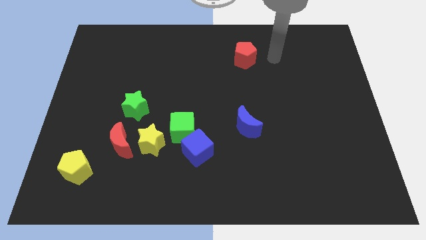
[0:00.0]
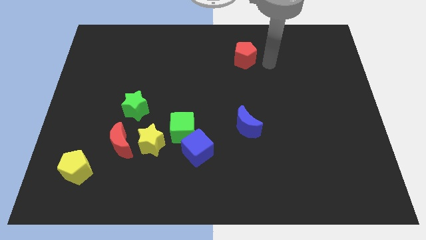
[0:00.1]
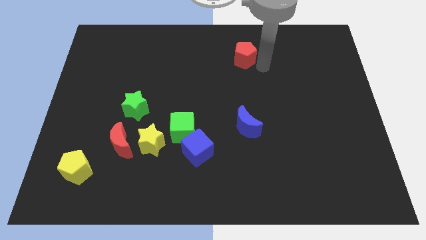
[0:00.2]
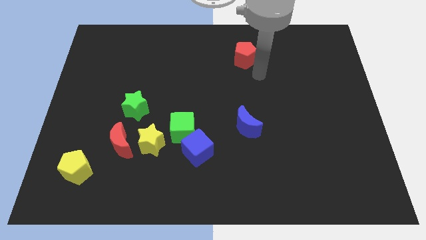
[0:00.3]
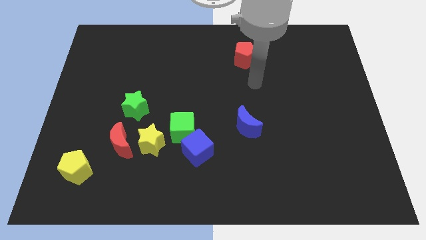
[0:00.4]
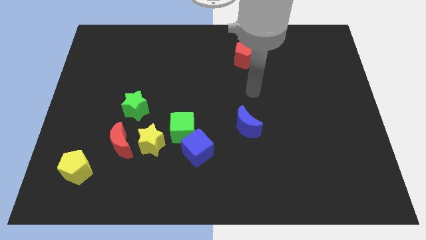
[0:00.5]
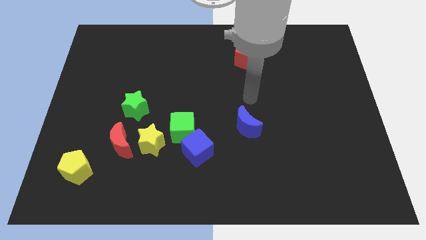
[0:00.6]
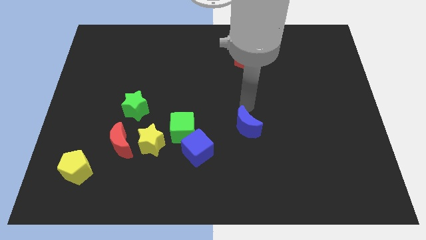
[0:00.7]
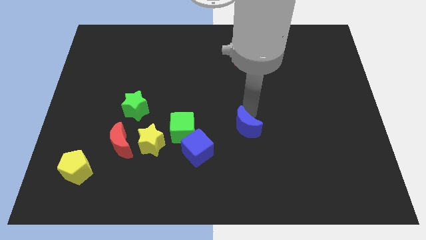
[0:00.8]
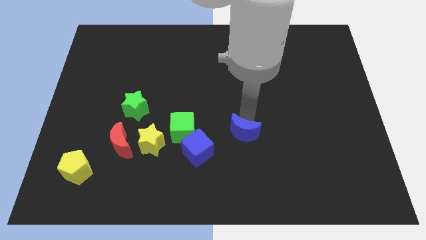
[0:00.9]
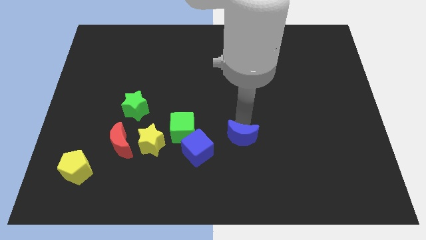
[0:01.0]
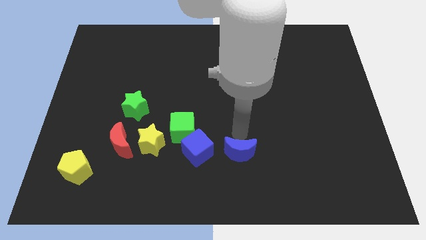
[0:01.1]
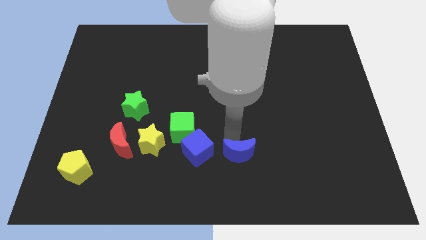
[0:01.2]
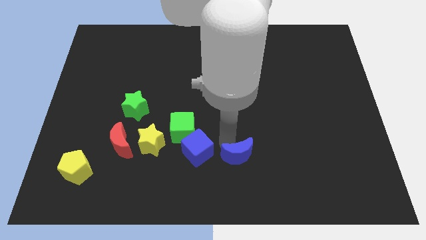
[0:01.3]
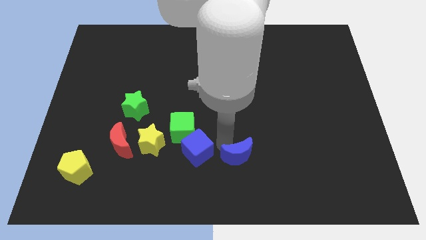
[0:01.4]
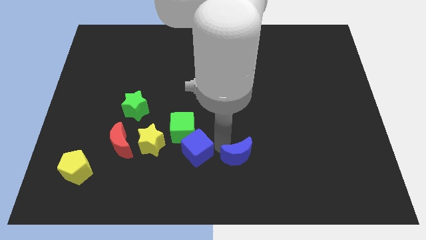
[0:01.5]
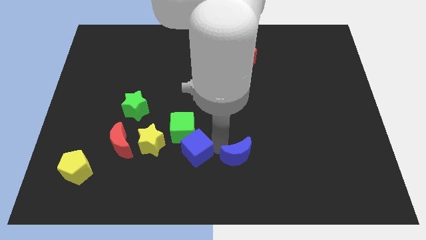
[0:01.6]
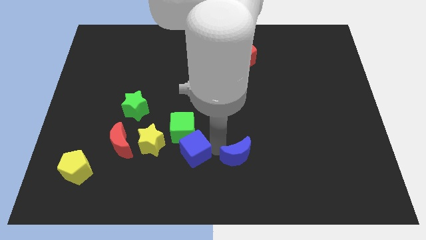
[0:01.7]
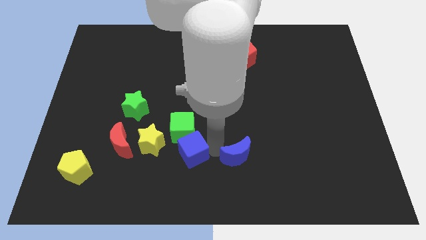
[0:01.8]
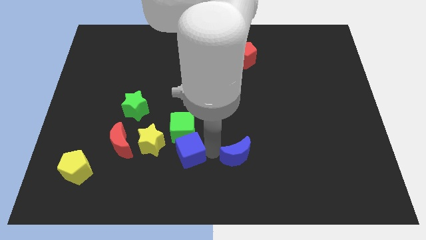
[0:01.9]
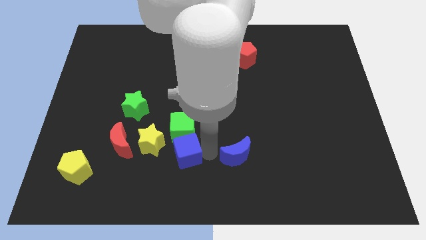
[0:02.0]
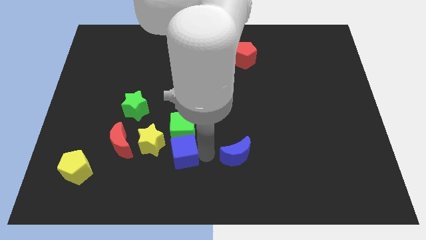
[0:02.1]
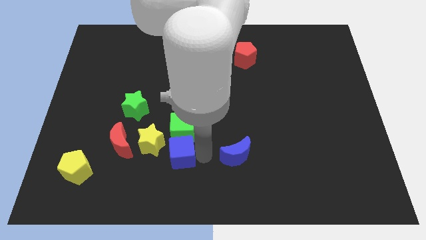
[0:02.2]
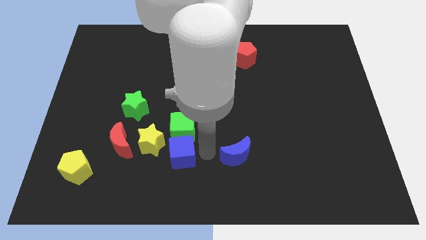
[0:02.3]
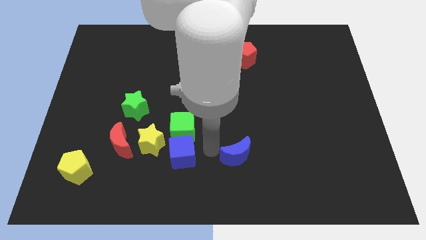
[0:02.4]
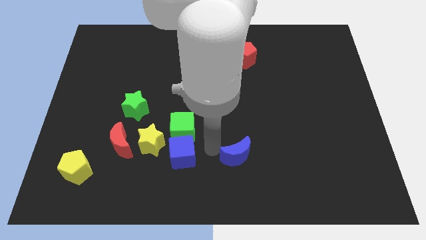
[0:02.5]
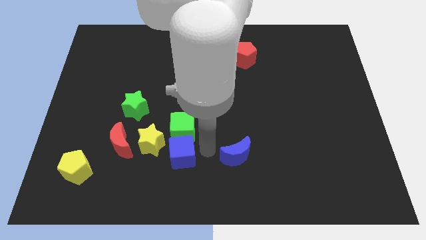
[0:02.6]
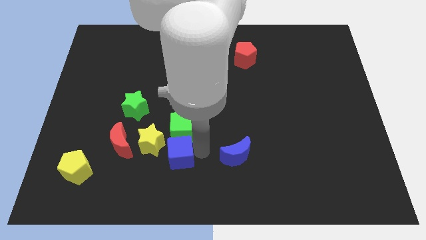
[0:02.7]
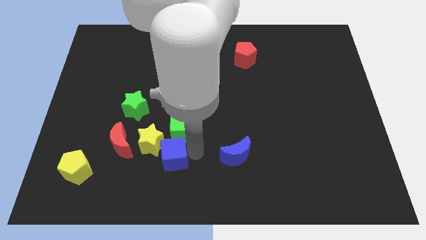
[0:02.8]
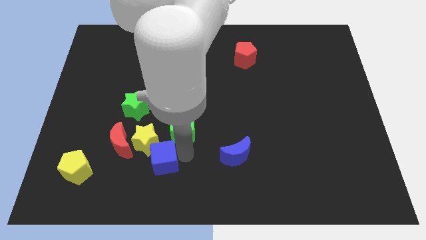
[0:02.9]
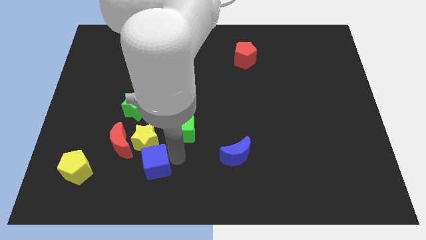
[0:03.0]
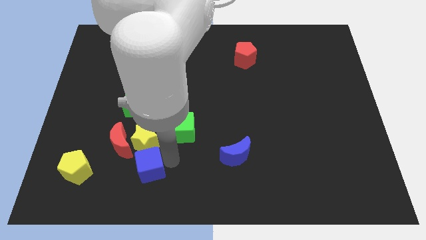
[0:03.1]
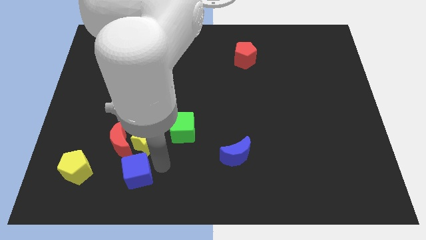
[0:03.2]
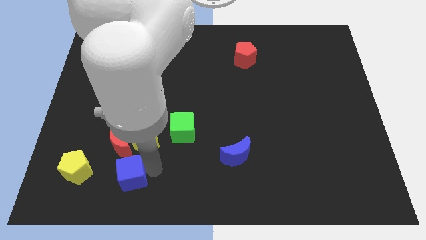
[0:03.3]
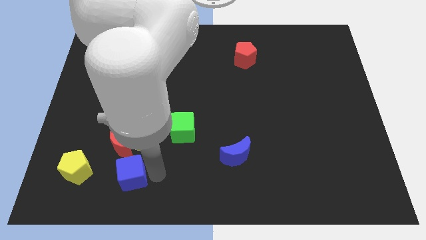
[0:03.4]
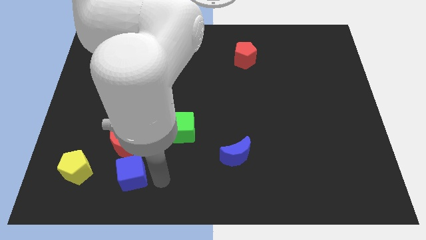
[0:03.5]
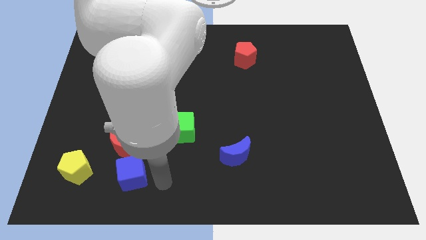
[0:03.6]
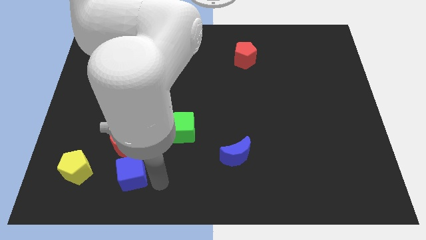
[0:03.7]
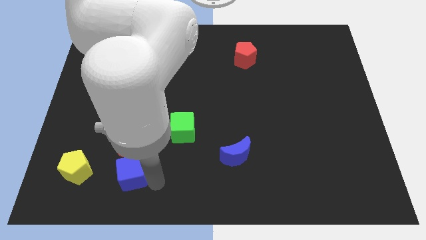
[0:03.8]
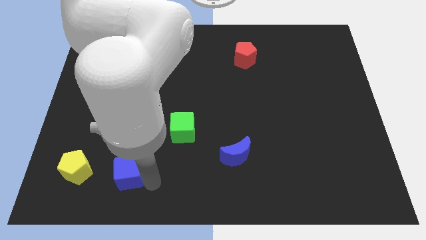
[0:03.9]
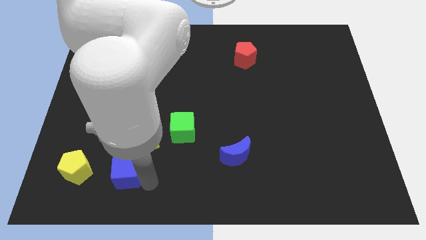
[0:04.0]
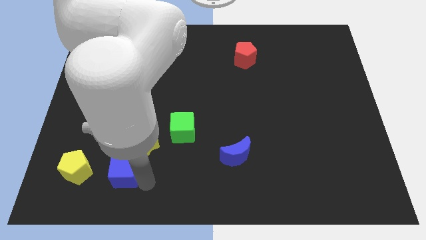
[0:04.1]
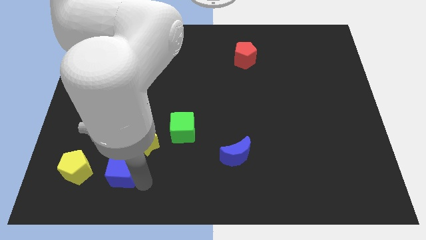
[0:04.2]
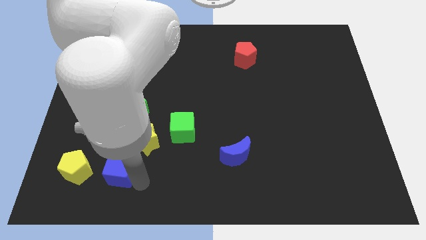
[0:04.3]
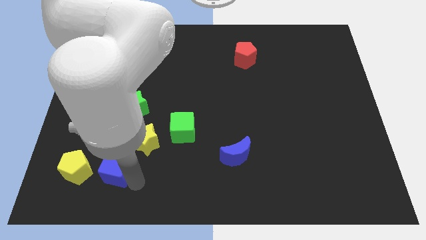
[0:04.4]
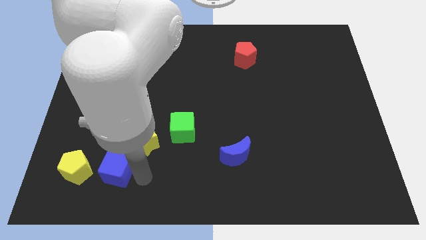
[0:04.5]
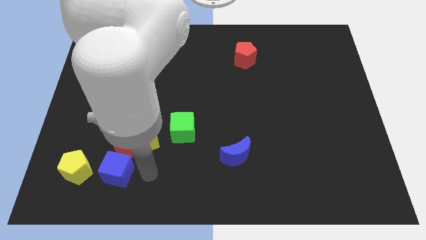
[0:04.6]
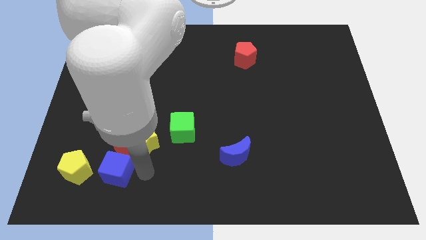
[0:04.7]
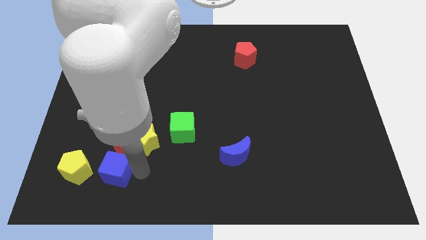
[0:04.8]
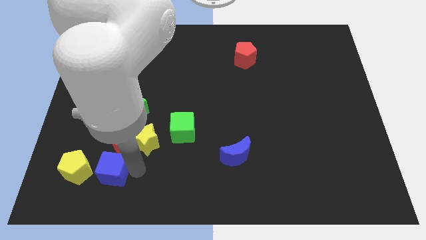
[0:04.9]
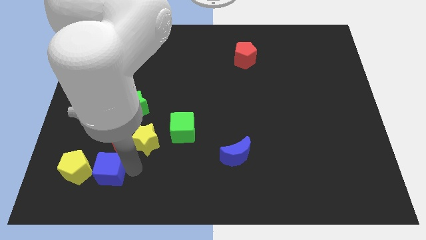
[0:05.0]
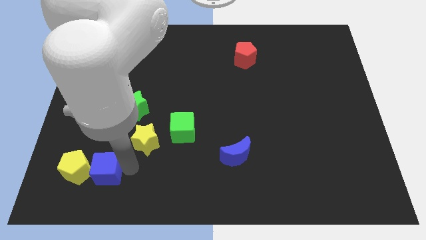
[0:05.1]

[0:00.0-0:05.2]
move the blue cube close to the yellow pentagon

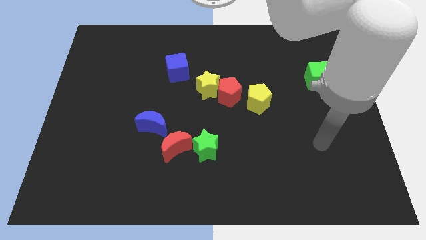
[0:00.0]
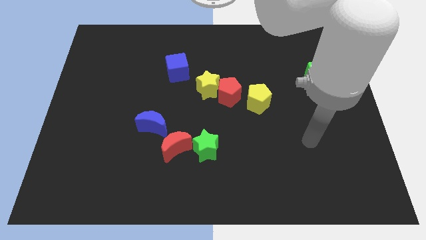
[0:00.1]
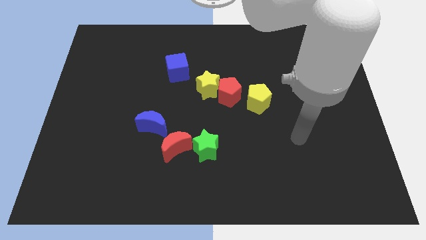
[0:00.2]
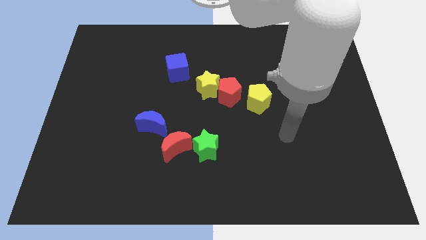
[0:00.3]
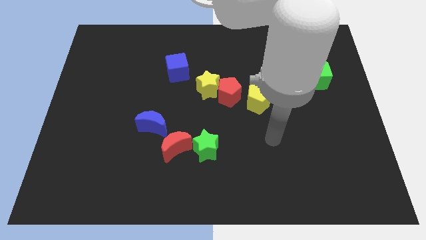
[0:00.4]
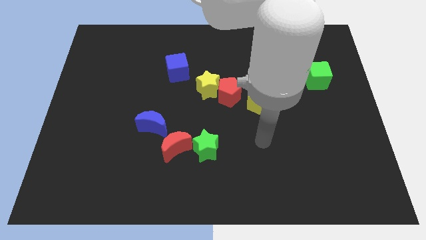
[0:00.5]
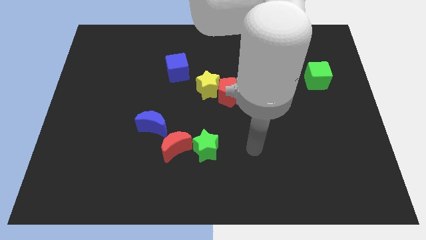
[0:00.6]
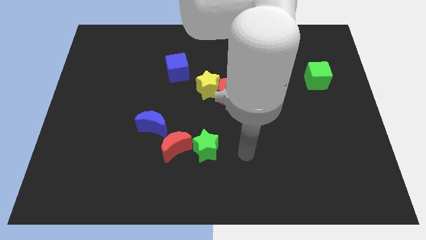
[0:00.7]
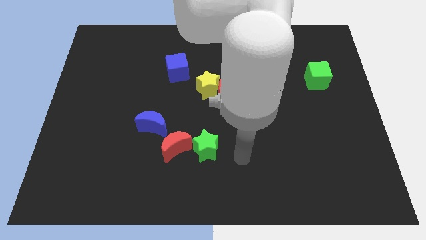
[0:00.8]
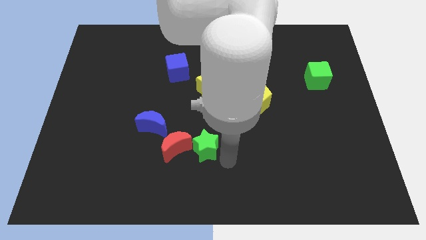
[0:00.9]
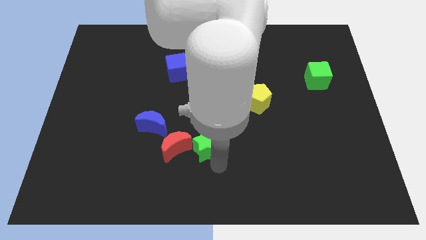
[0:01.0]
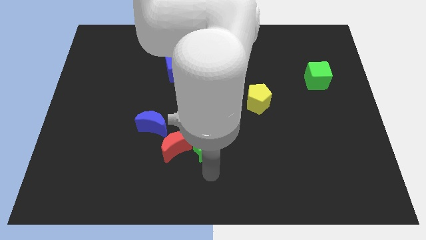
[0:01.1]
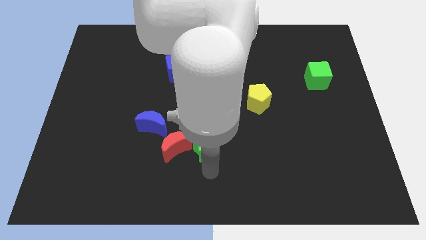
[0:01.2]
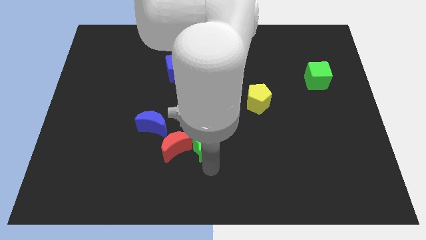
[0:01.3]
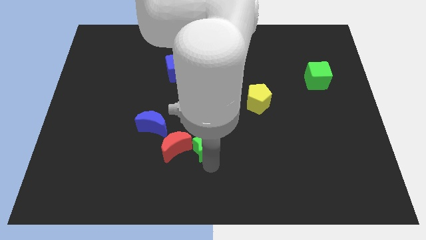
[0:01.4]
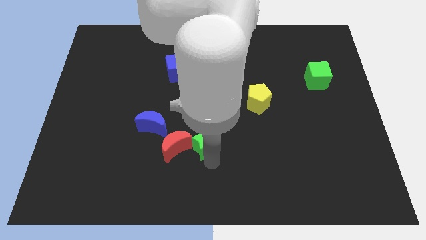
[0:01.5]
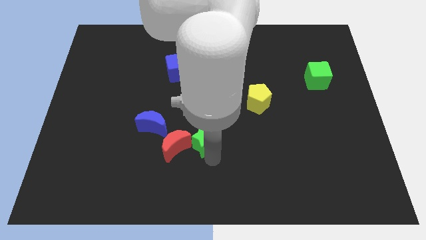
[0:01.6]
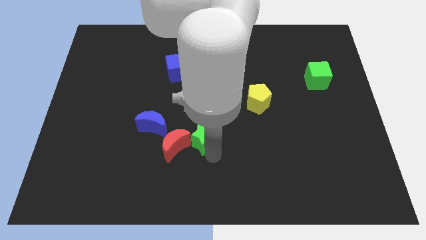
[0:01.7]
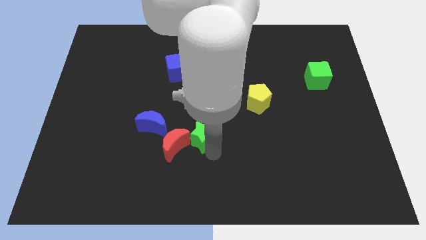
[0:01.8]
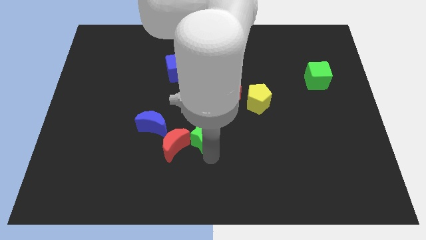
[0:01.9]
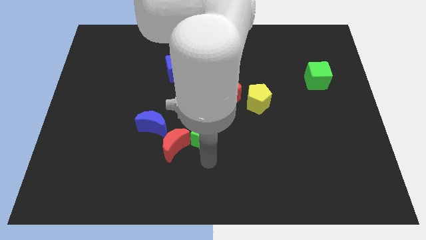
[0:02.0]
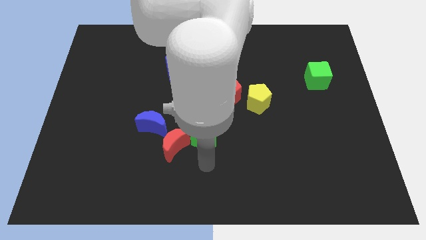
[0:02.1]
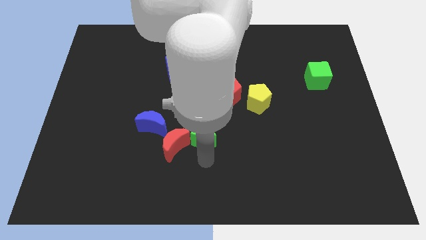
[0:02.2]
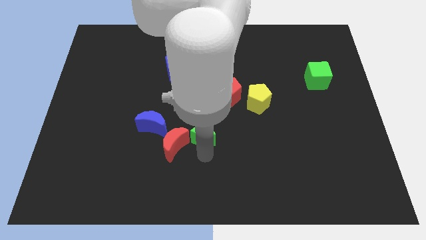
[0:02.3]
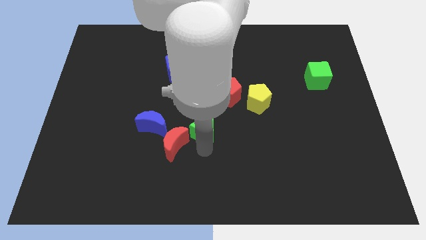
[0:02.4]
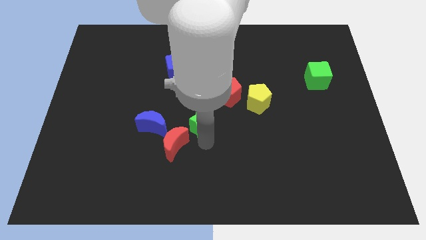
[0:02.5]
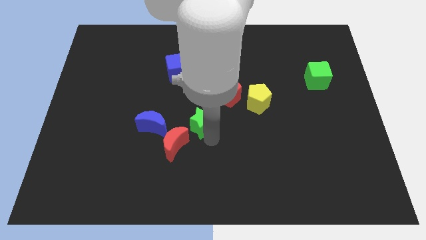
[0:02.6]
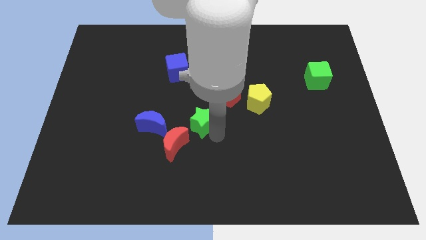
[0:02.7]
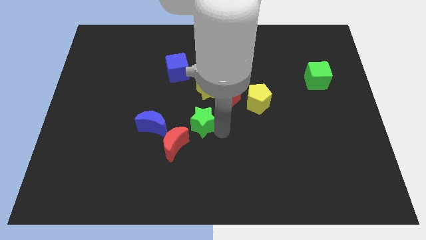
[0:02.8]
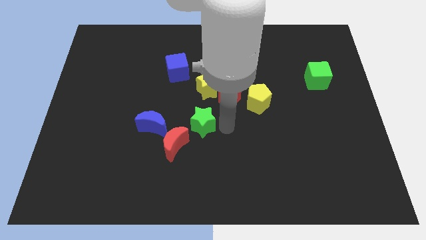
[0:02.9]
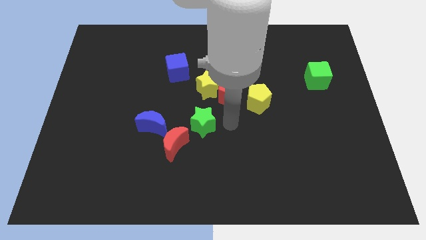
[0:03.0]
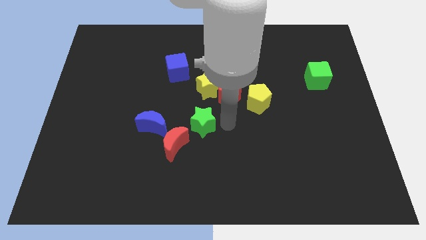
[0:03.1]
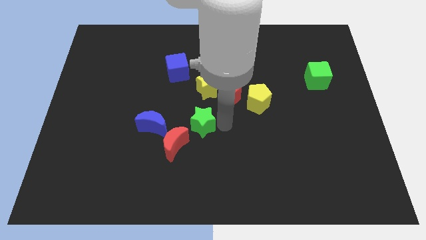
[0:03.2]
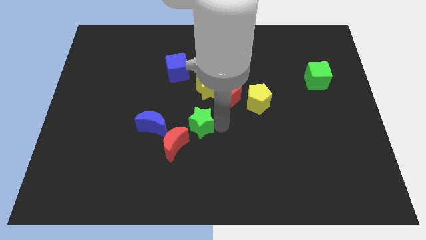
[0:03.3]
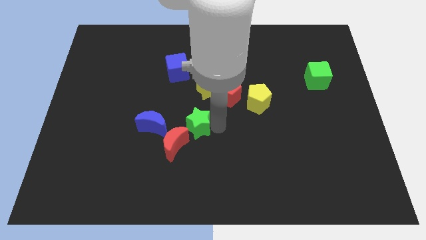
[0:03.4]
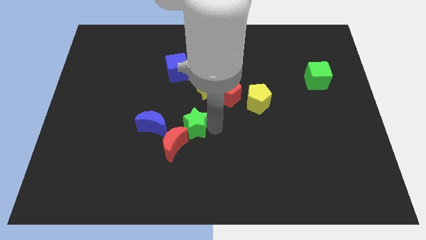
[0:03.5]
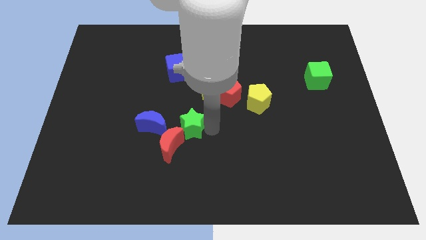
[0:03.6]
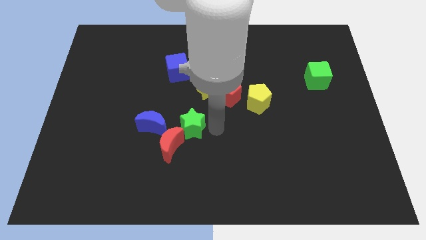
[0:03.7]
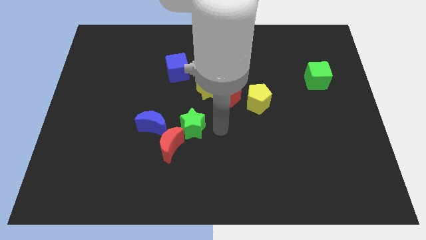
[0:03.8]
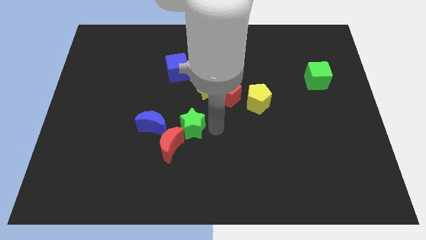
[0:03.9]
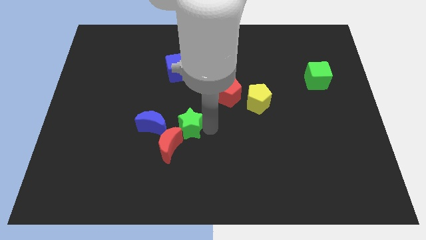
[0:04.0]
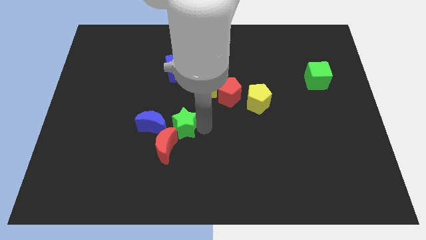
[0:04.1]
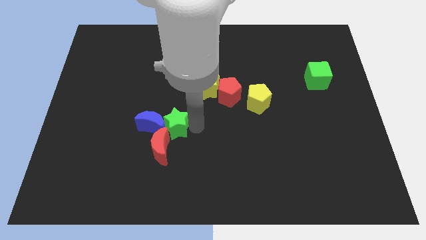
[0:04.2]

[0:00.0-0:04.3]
move the green star next to the blue moon
